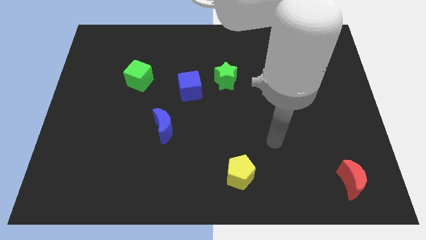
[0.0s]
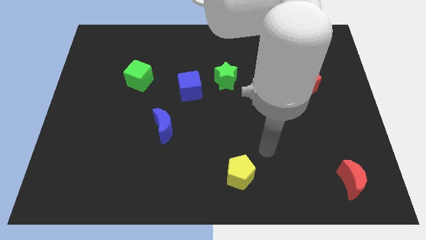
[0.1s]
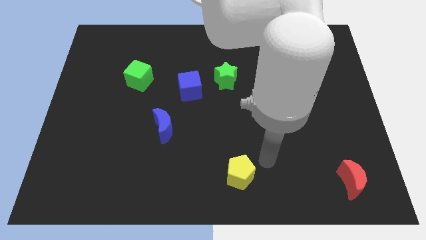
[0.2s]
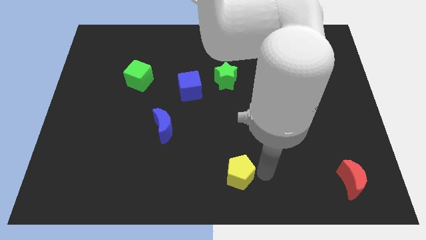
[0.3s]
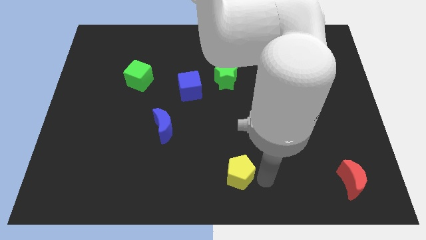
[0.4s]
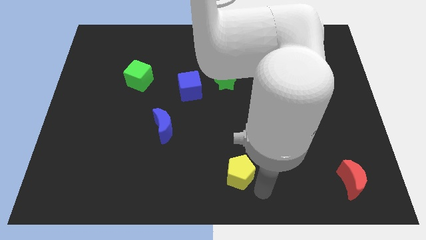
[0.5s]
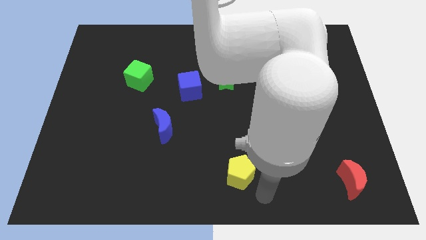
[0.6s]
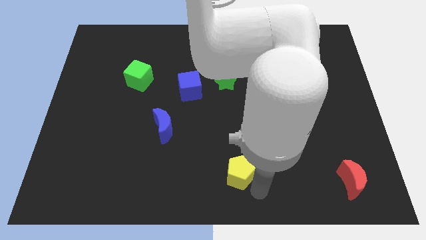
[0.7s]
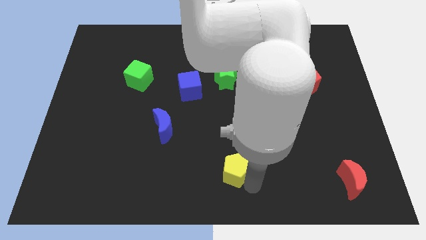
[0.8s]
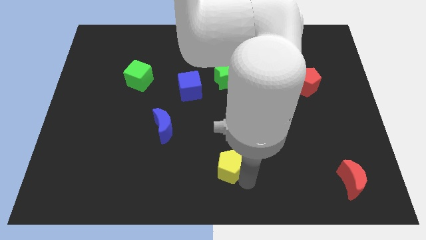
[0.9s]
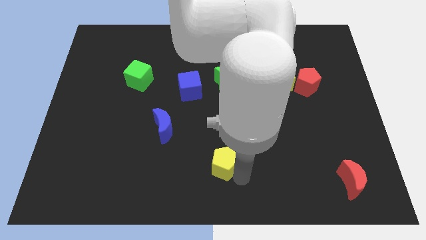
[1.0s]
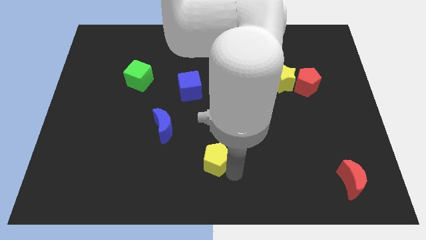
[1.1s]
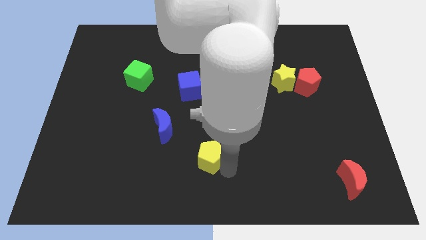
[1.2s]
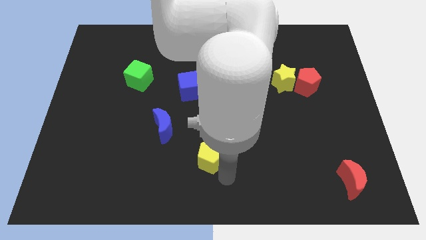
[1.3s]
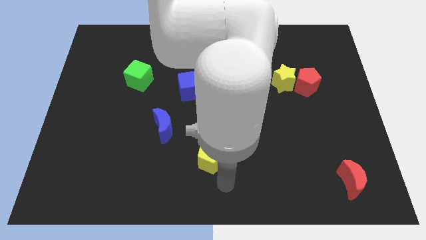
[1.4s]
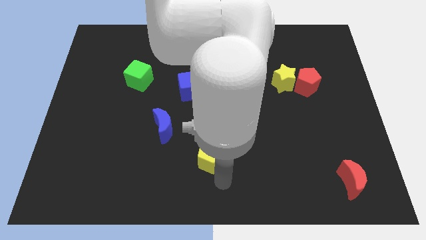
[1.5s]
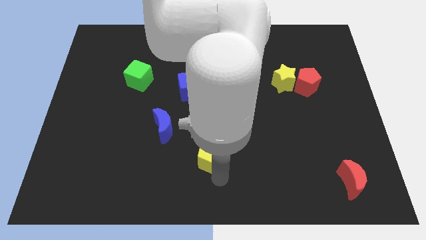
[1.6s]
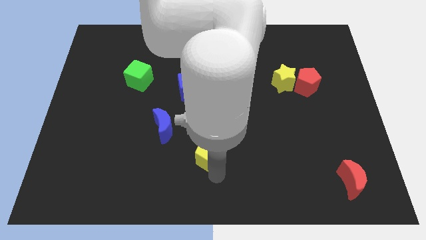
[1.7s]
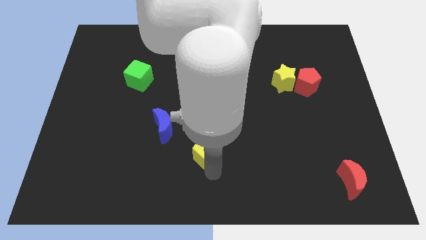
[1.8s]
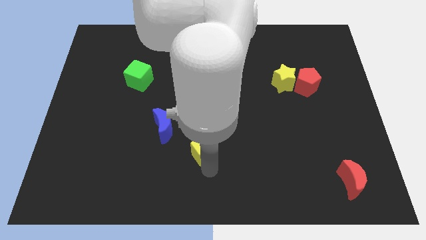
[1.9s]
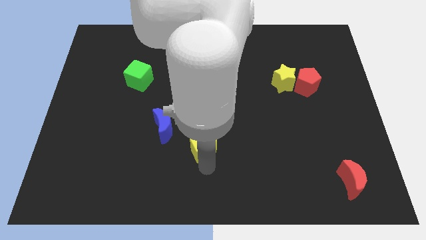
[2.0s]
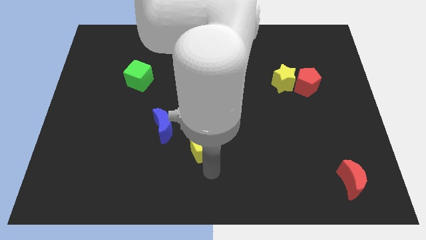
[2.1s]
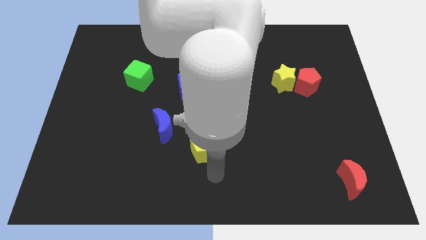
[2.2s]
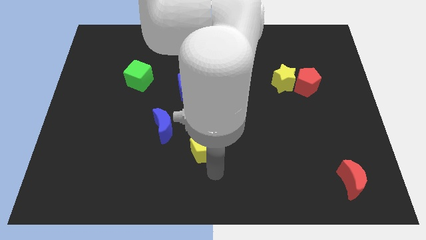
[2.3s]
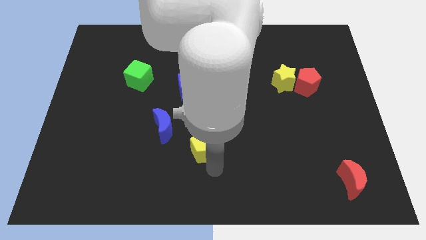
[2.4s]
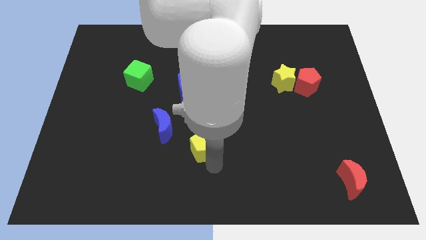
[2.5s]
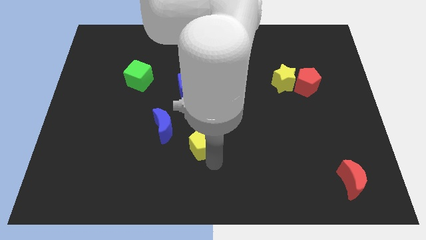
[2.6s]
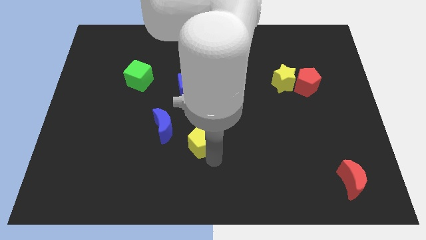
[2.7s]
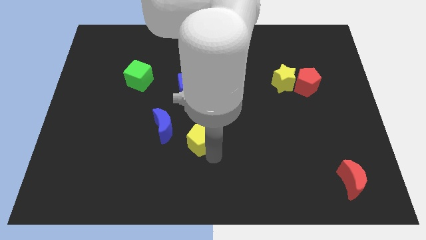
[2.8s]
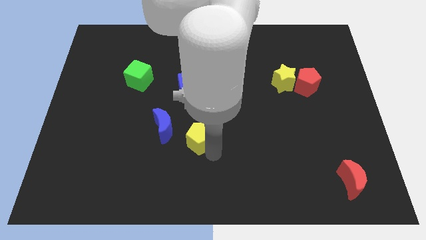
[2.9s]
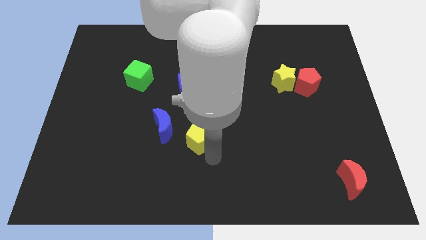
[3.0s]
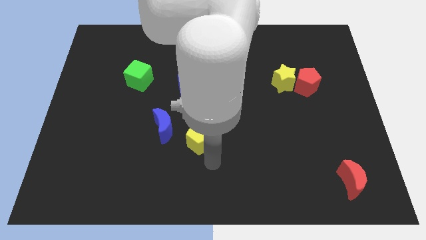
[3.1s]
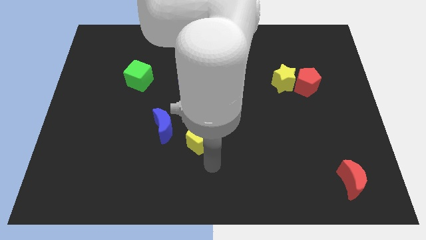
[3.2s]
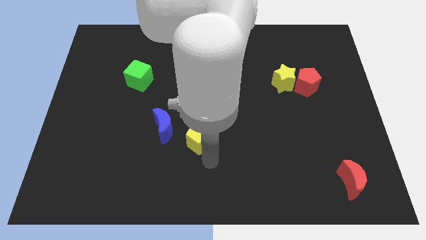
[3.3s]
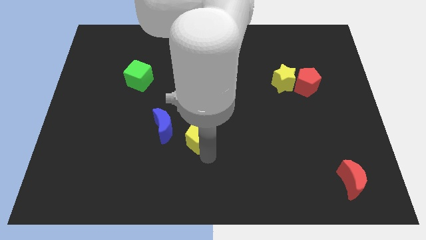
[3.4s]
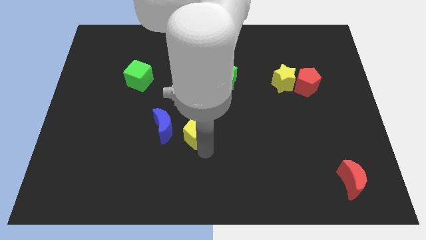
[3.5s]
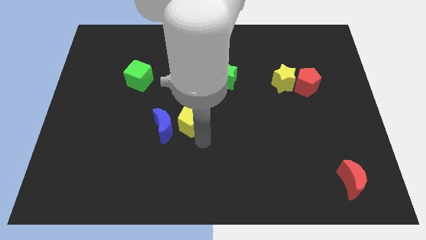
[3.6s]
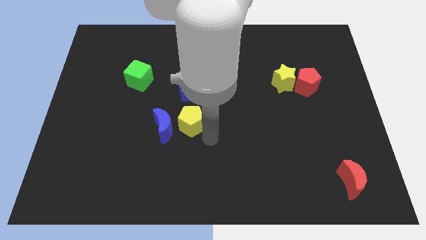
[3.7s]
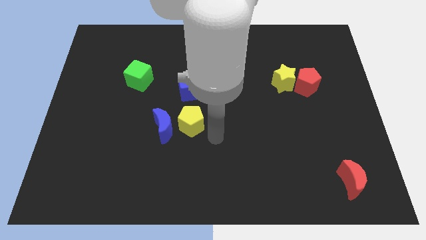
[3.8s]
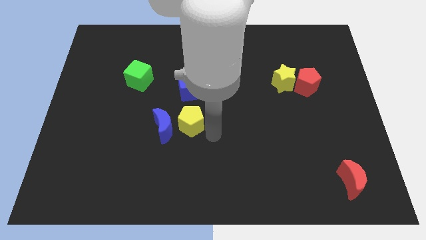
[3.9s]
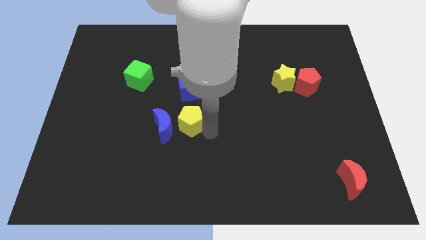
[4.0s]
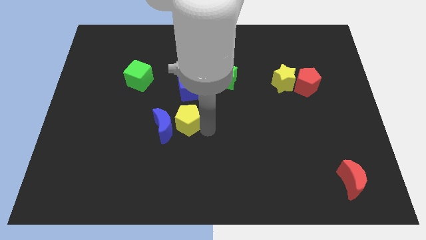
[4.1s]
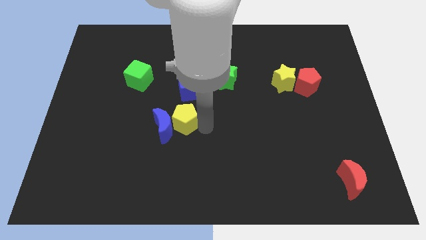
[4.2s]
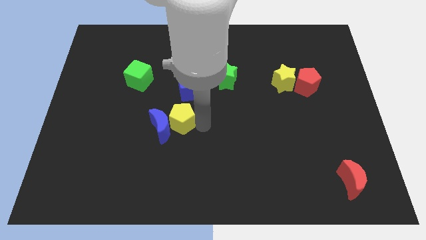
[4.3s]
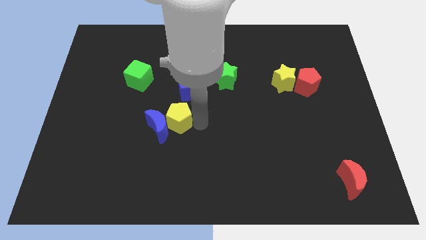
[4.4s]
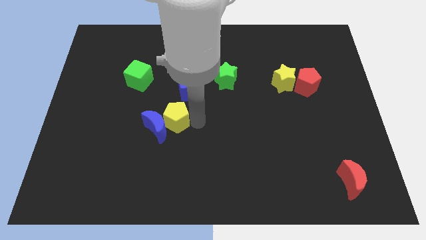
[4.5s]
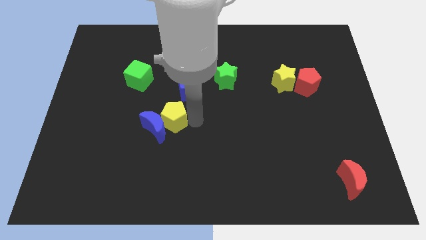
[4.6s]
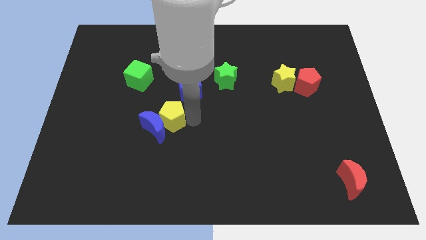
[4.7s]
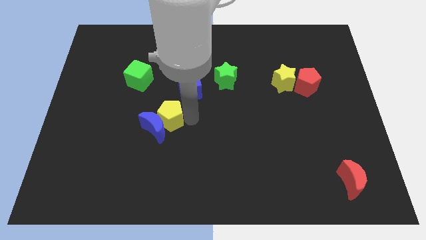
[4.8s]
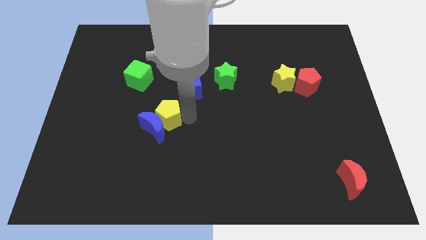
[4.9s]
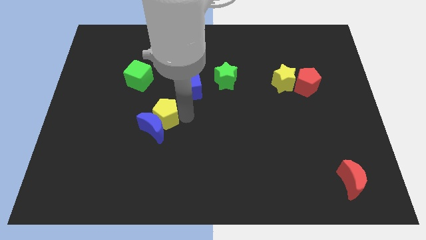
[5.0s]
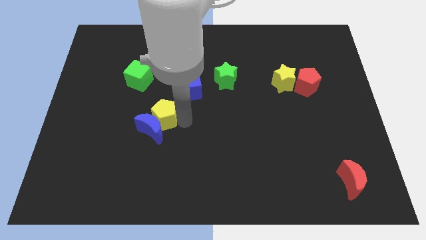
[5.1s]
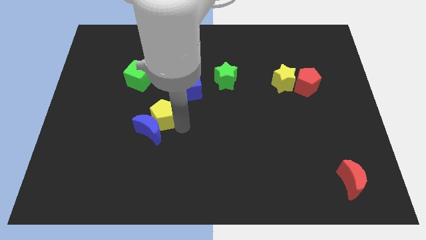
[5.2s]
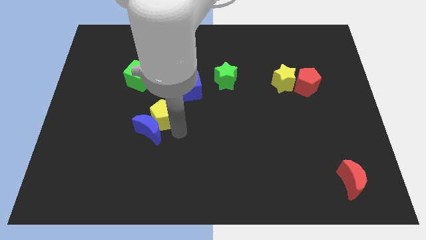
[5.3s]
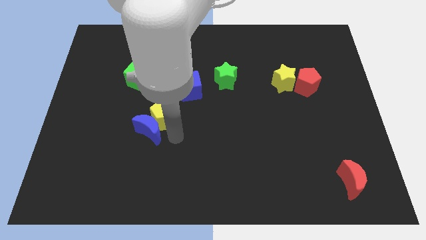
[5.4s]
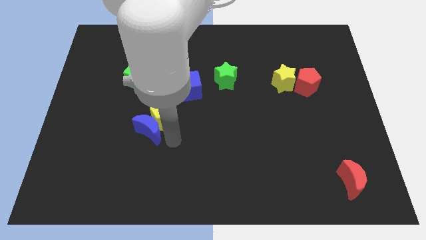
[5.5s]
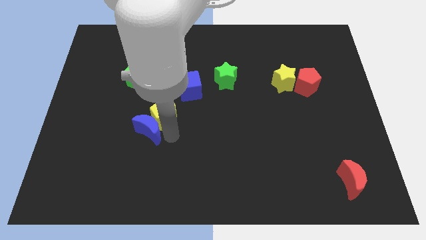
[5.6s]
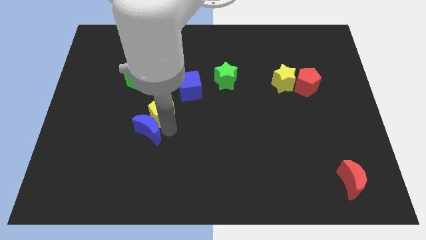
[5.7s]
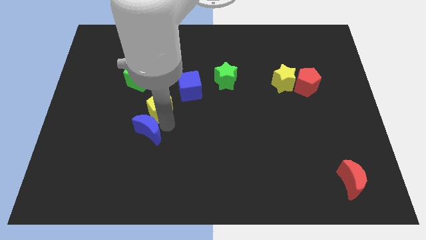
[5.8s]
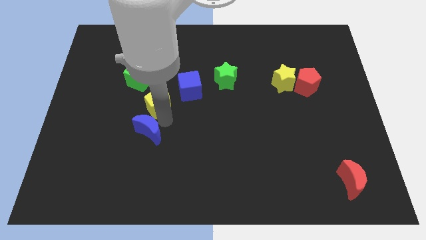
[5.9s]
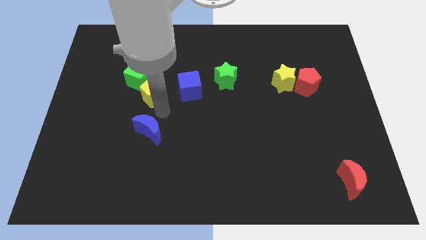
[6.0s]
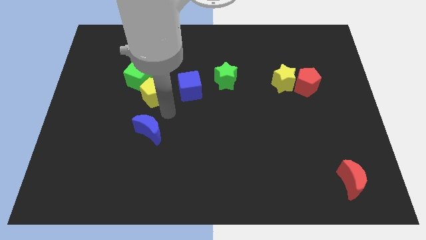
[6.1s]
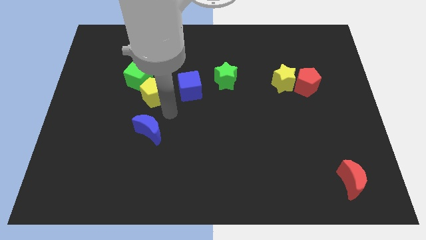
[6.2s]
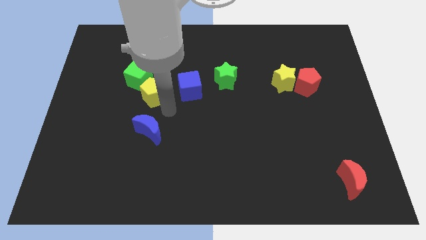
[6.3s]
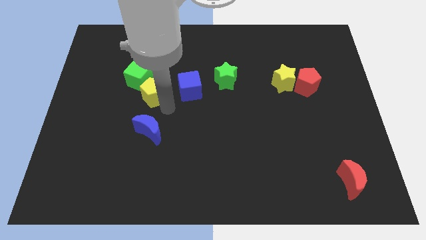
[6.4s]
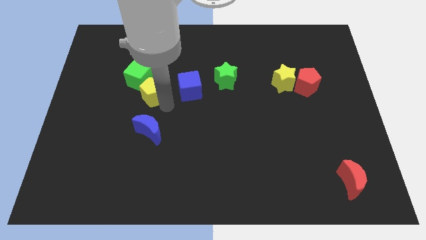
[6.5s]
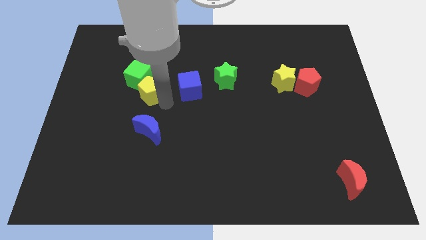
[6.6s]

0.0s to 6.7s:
slide the yellow pentagon next to the green cube
